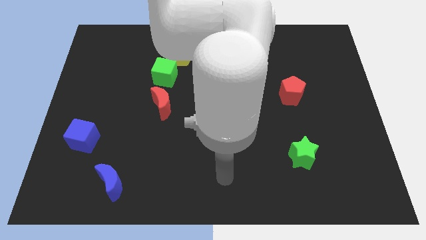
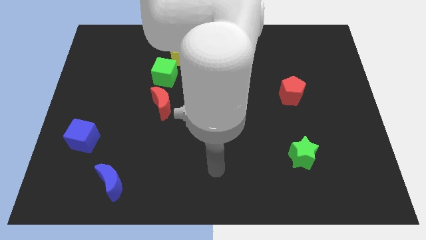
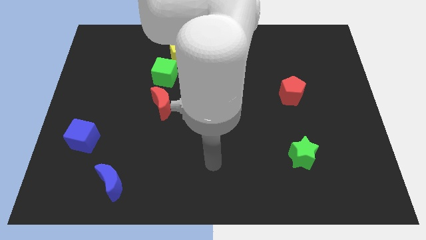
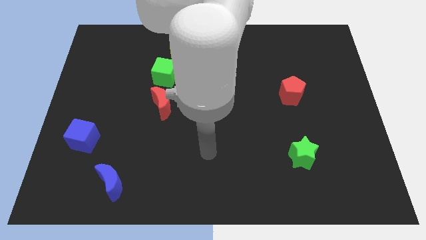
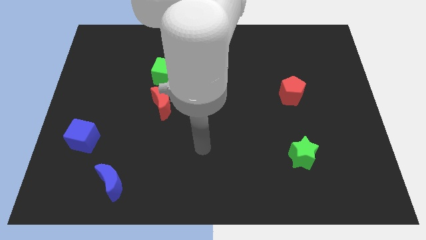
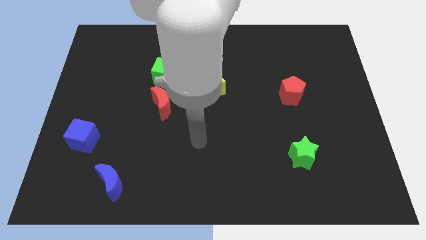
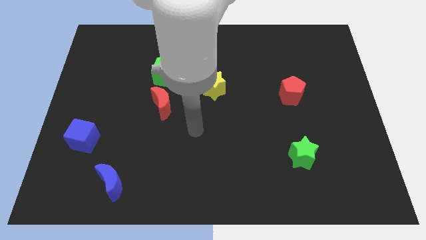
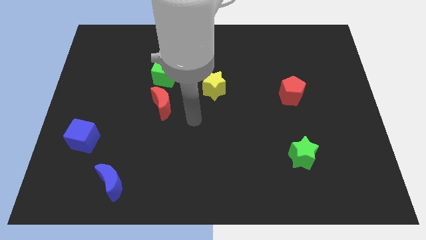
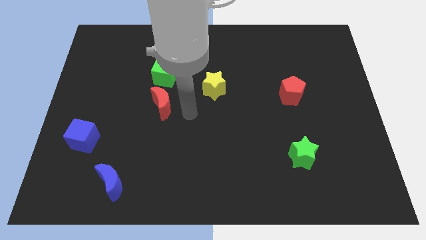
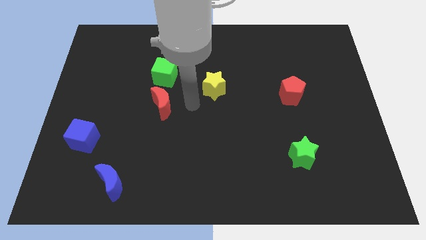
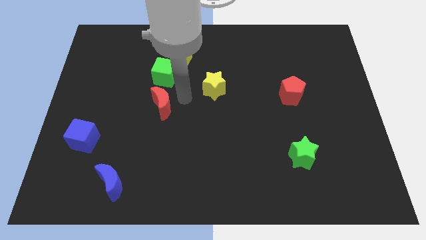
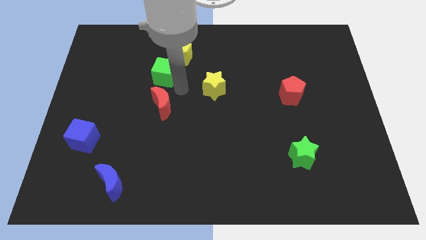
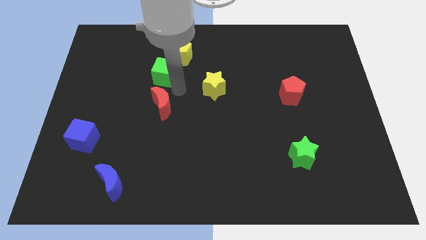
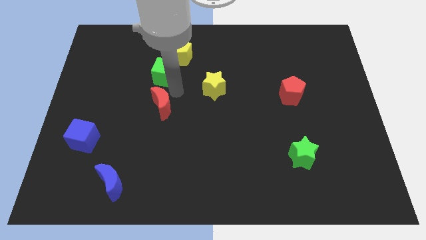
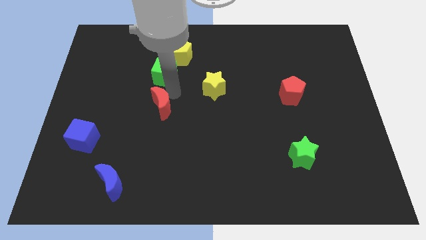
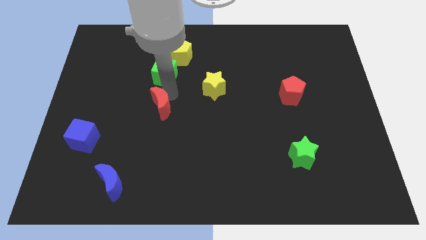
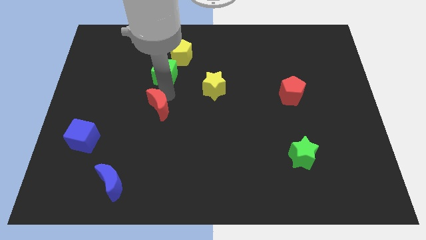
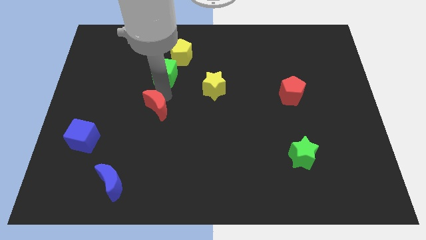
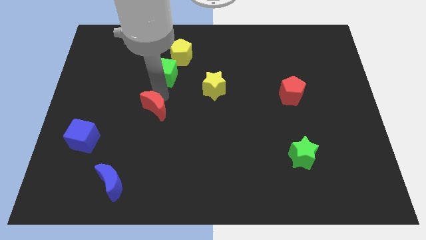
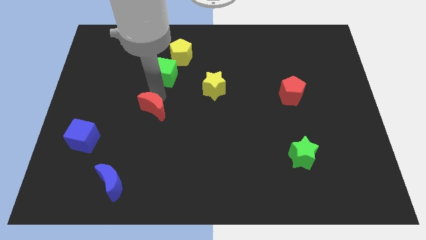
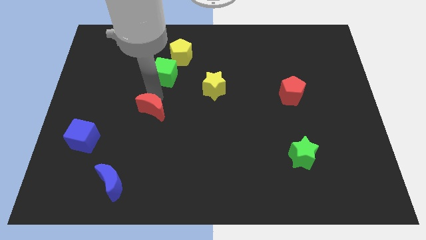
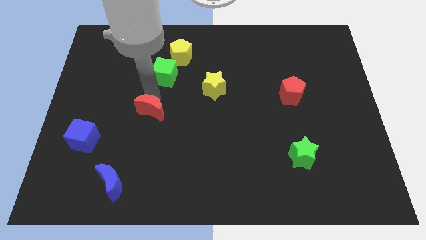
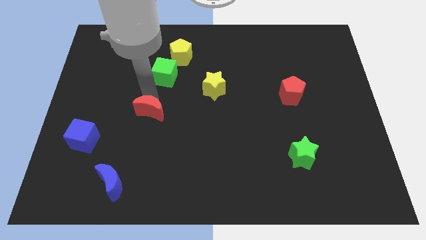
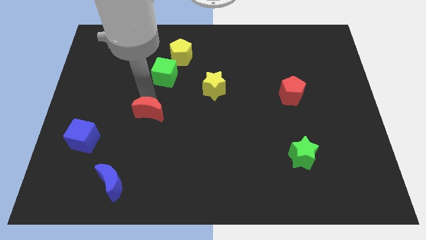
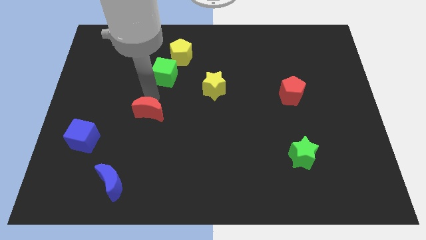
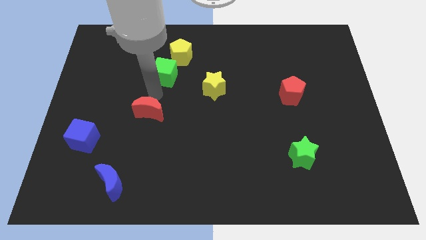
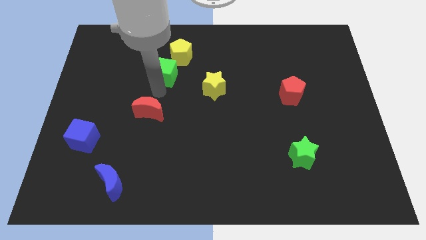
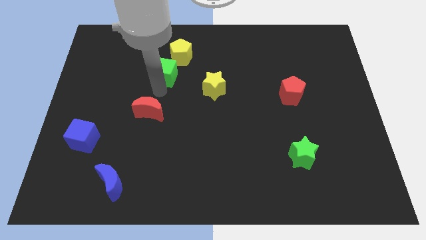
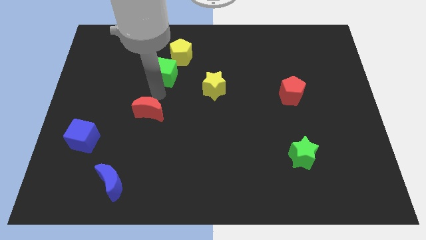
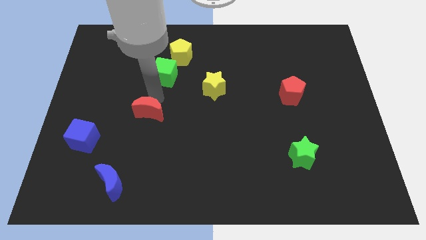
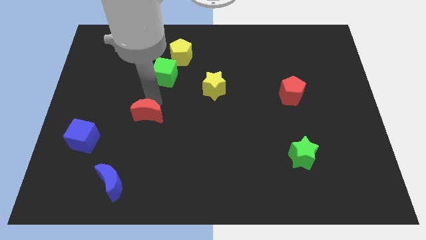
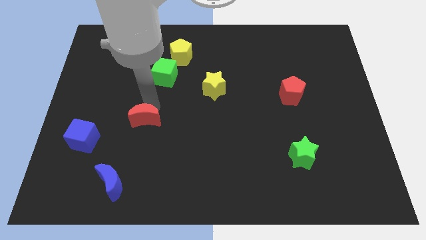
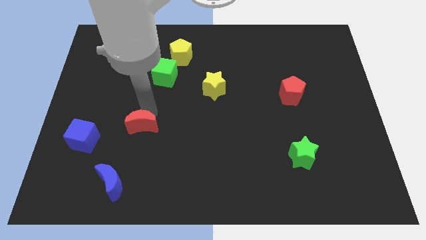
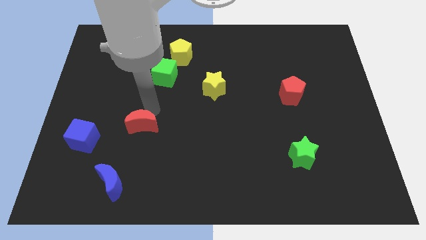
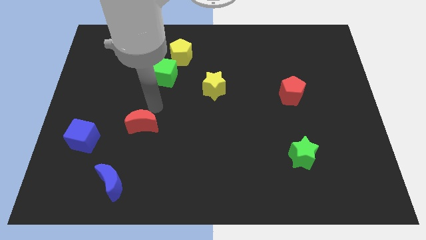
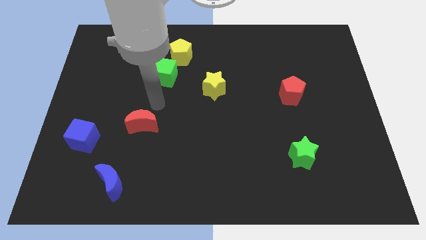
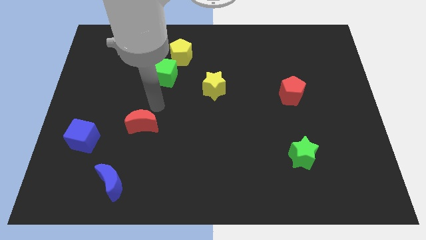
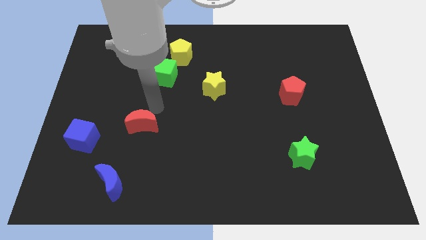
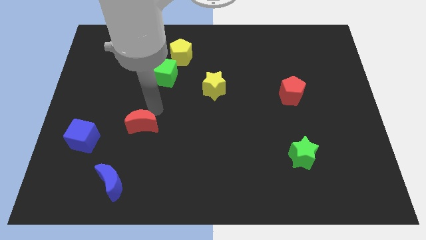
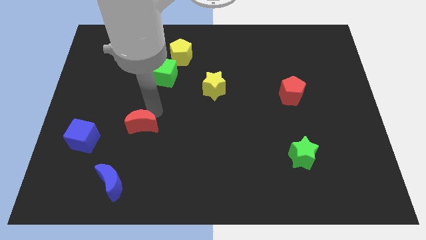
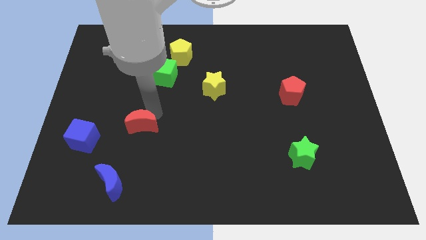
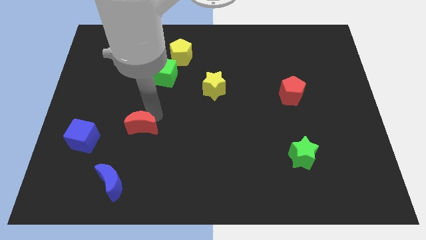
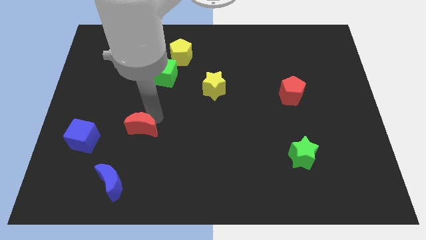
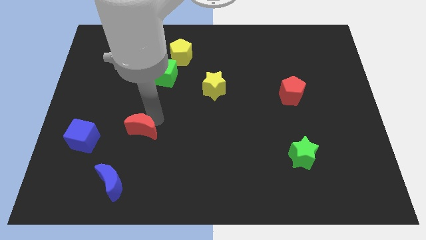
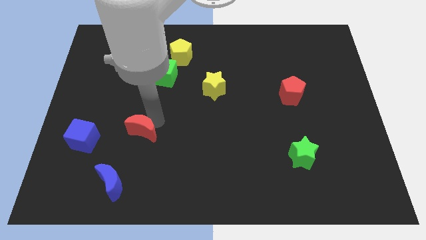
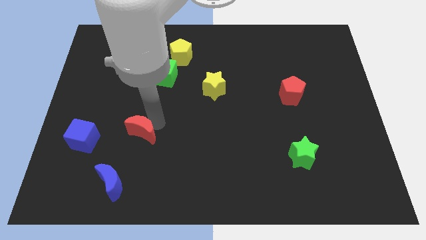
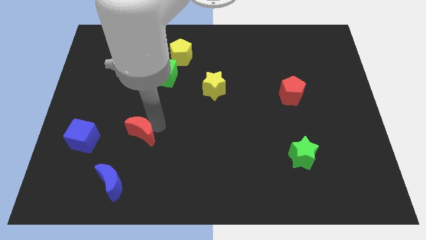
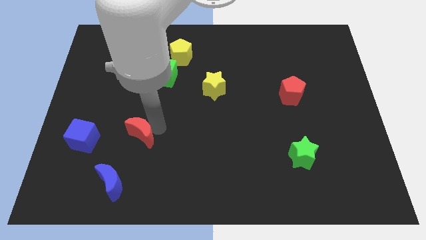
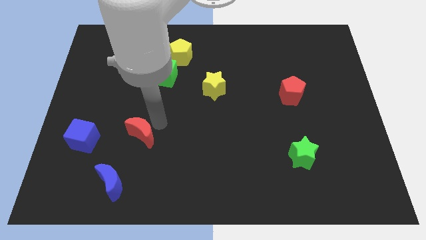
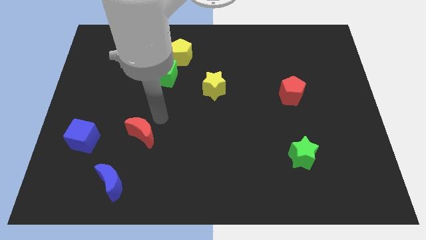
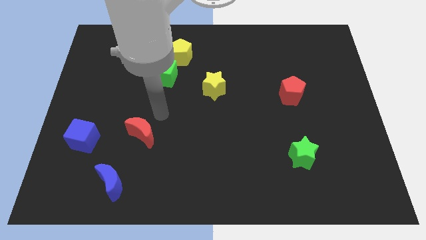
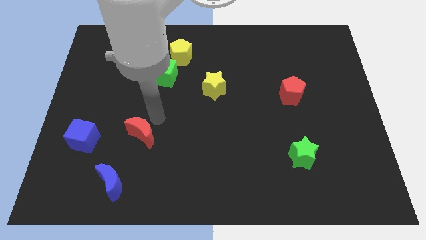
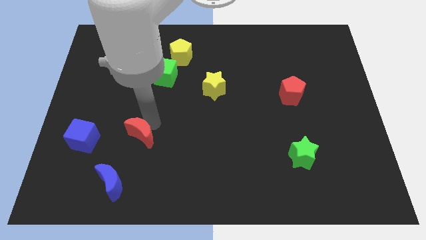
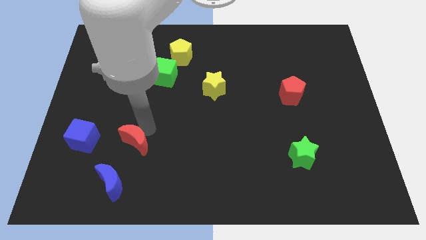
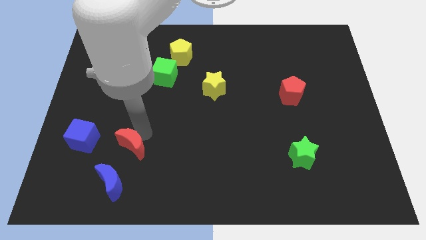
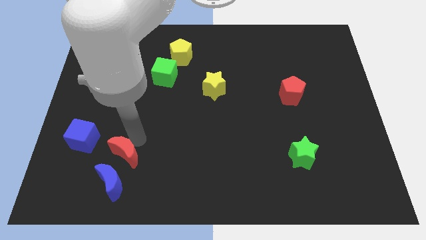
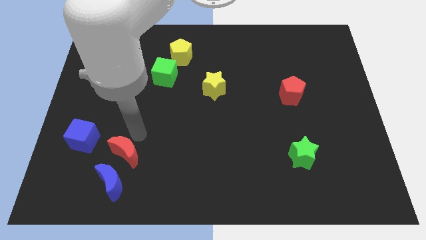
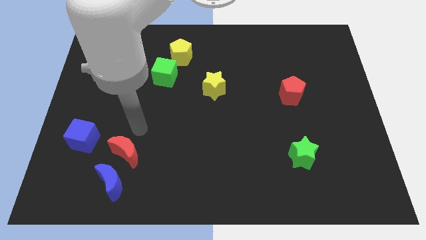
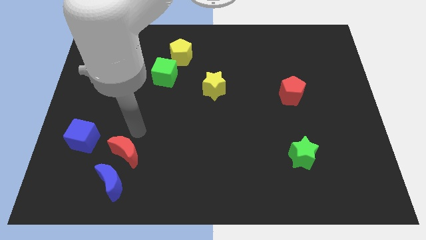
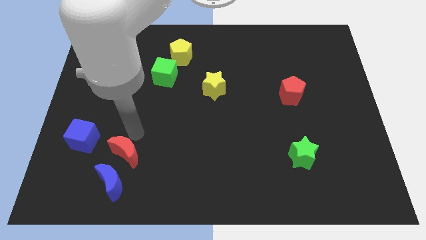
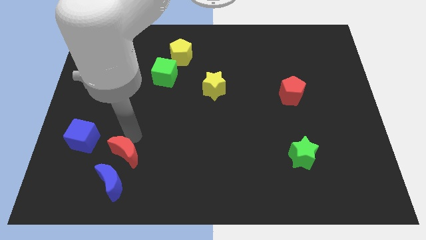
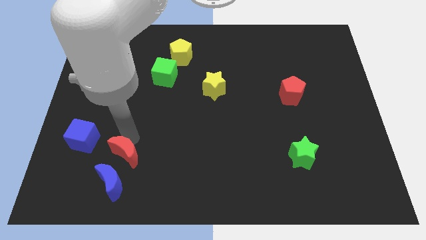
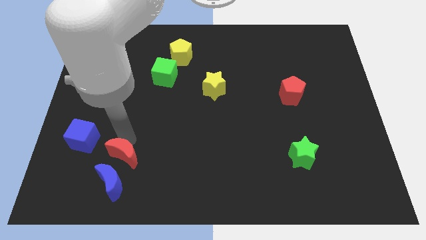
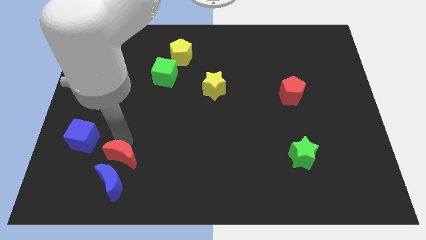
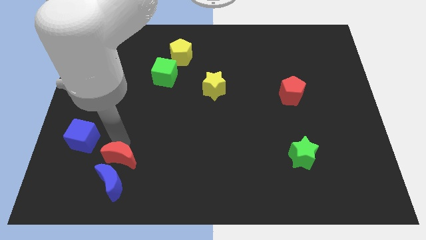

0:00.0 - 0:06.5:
push the red moon to the blue moon

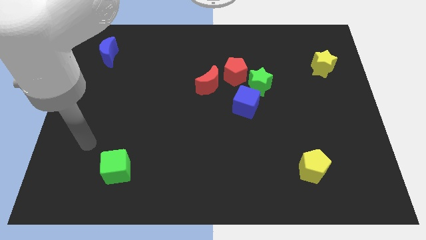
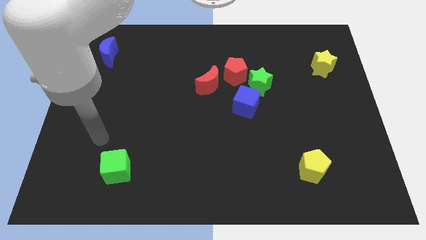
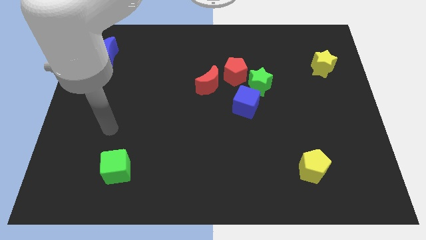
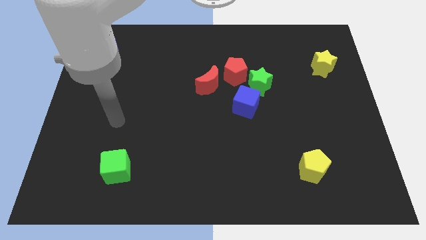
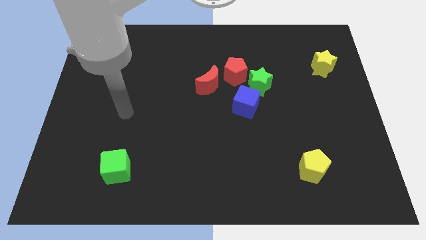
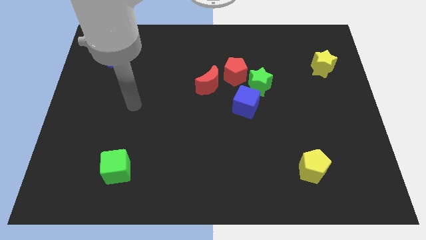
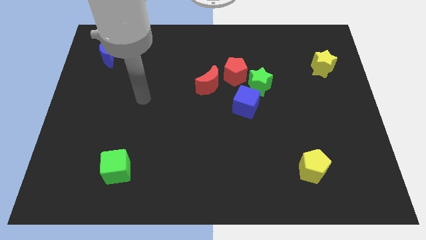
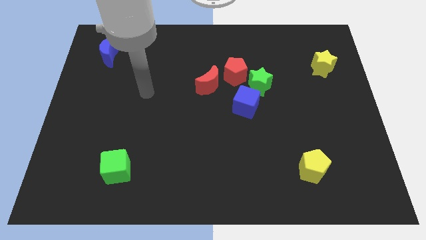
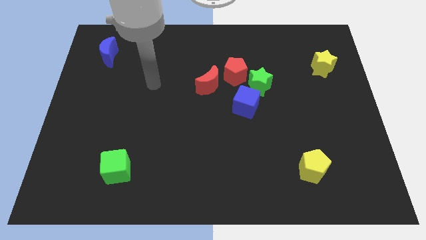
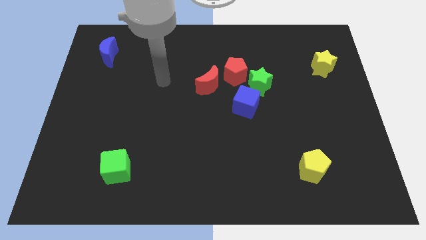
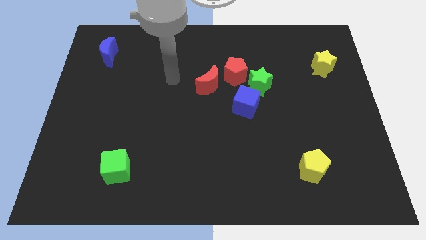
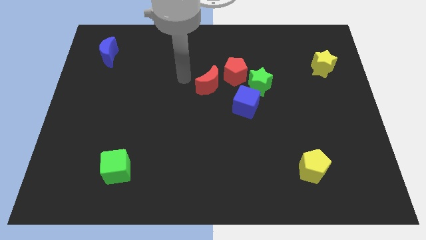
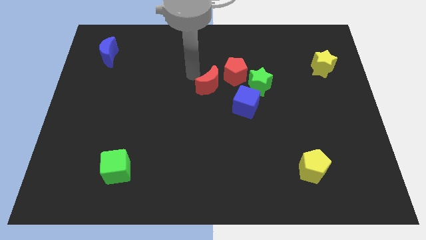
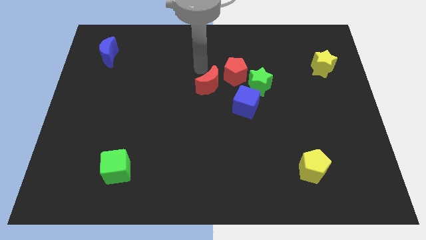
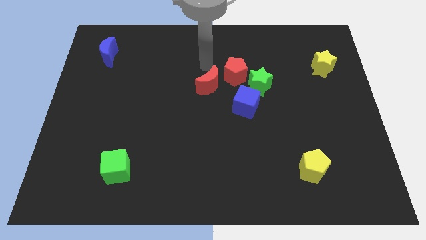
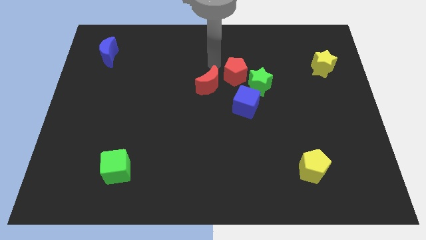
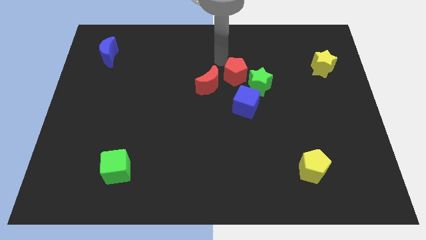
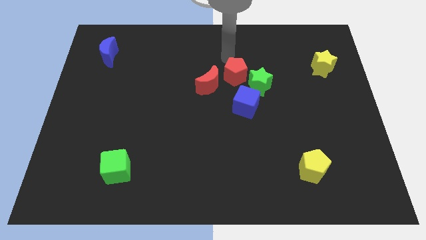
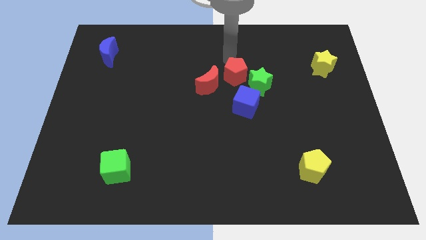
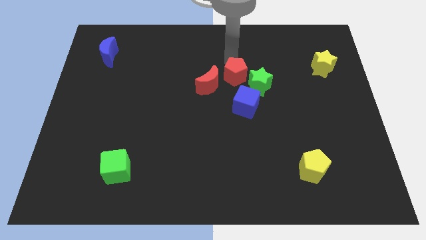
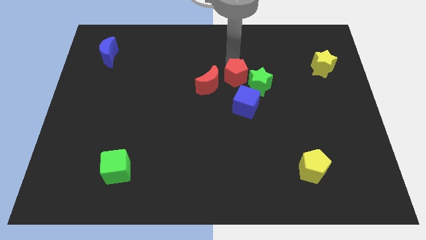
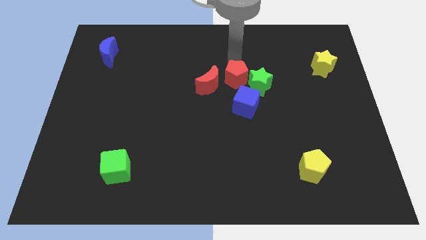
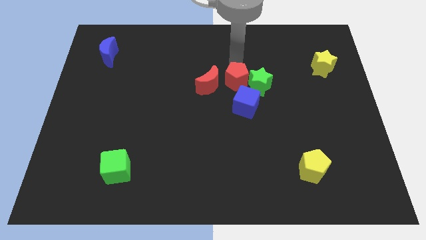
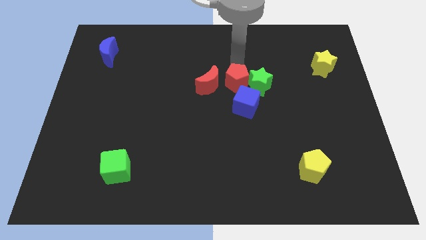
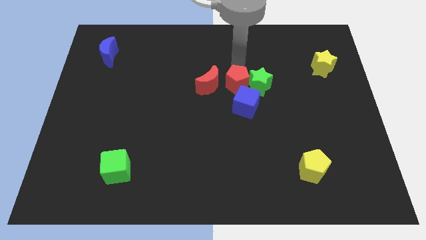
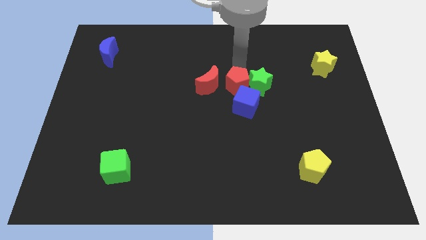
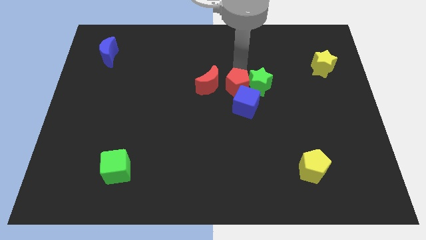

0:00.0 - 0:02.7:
push the red pentagon next to the blue cube
